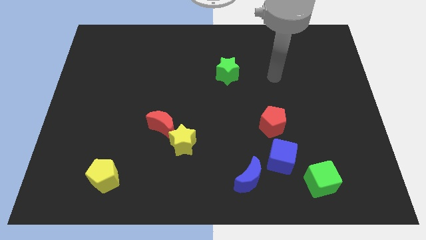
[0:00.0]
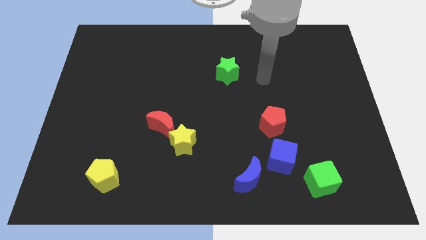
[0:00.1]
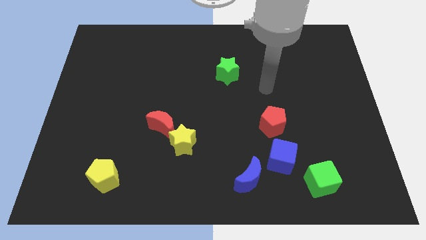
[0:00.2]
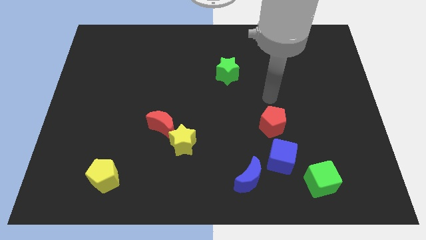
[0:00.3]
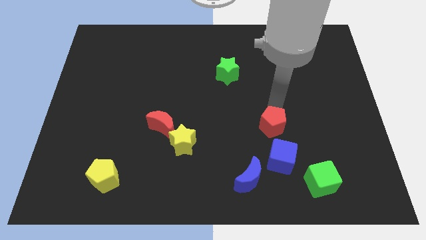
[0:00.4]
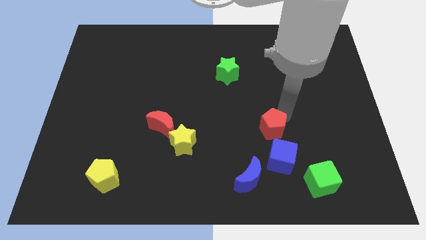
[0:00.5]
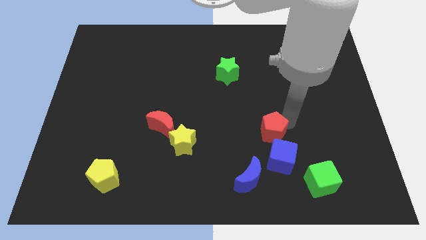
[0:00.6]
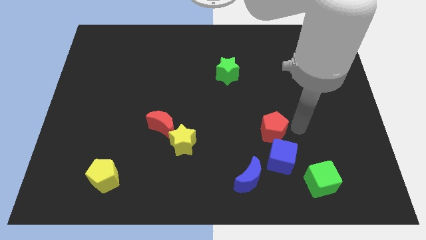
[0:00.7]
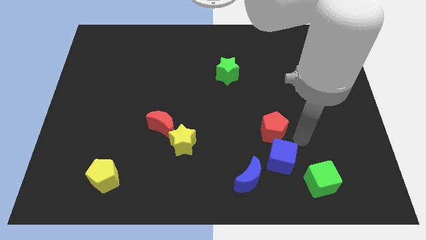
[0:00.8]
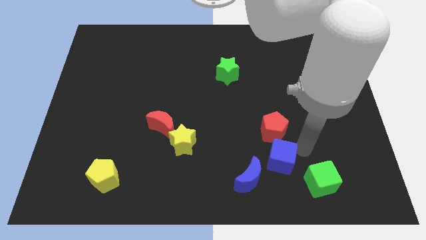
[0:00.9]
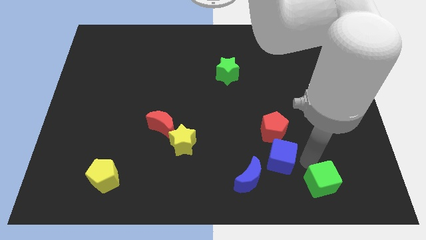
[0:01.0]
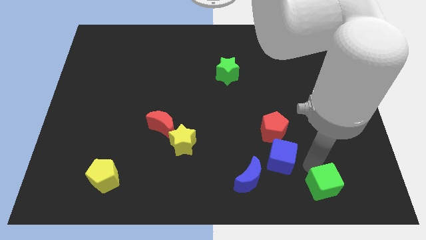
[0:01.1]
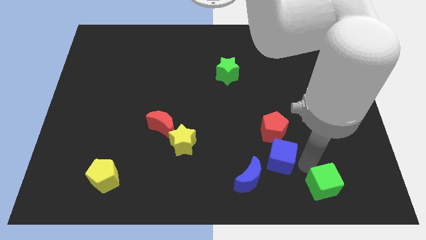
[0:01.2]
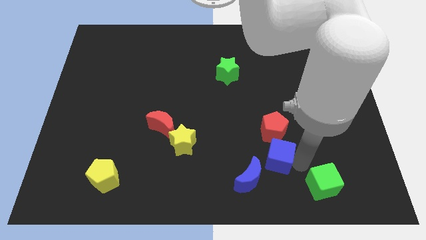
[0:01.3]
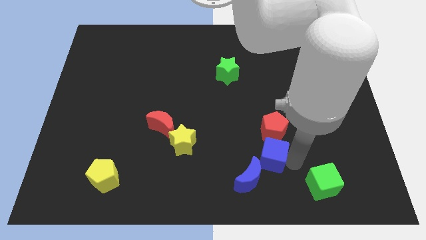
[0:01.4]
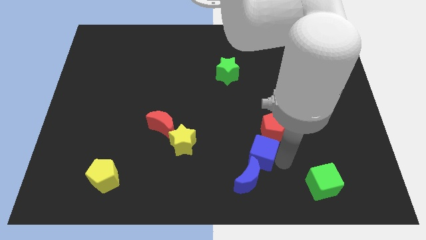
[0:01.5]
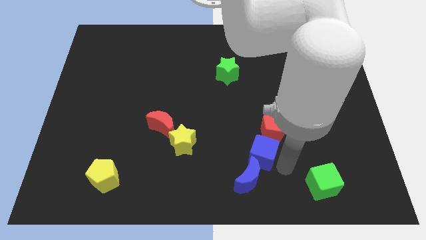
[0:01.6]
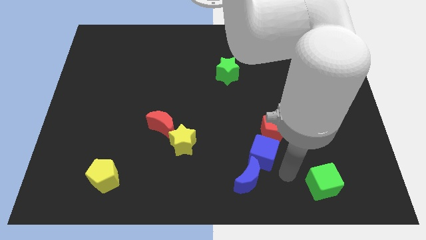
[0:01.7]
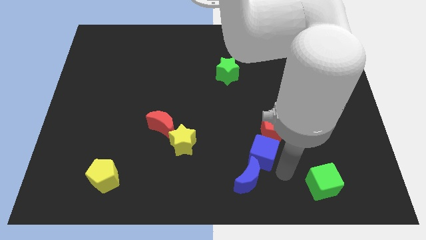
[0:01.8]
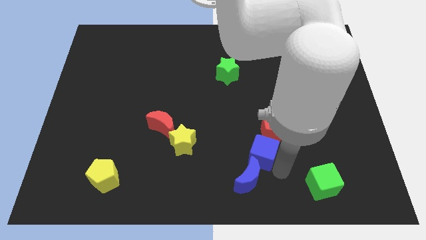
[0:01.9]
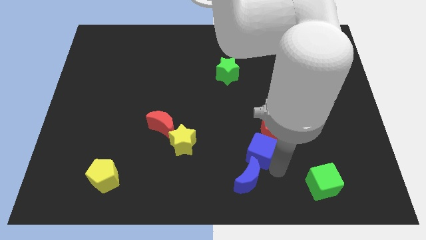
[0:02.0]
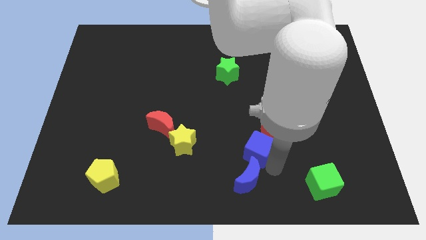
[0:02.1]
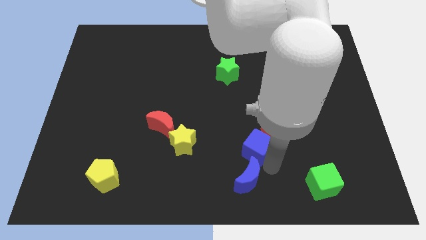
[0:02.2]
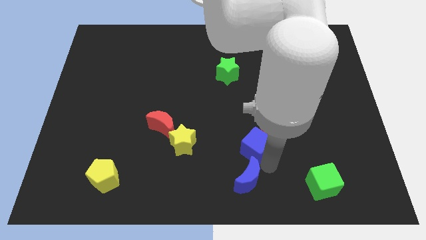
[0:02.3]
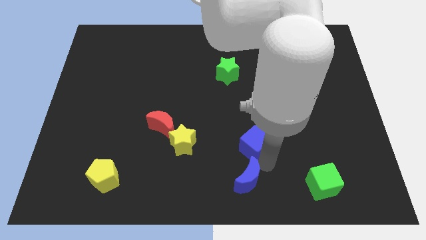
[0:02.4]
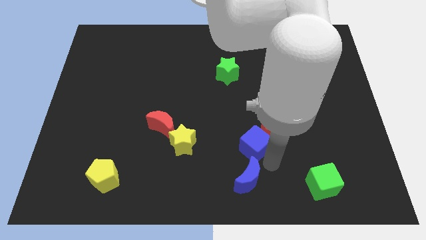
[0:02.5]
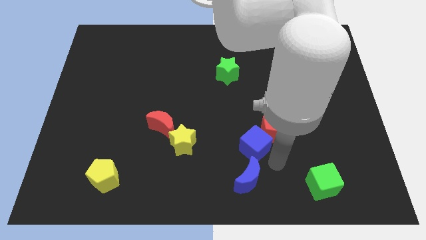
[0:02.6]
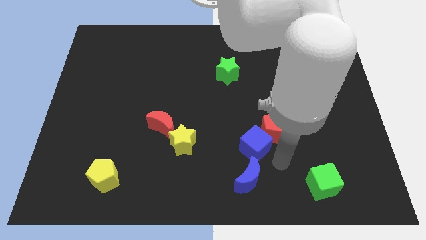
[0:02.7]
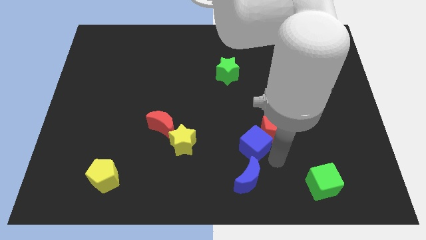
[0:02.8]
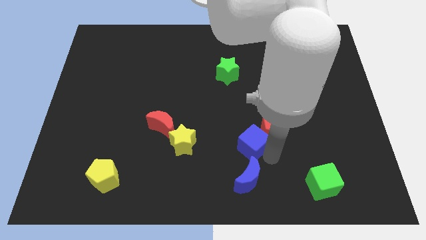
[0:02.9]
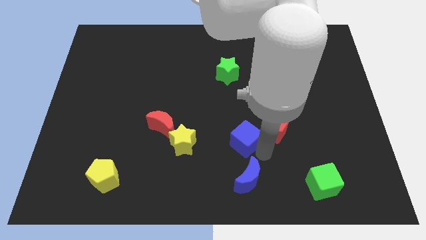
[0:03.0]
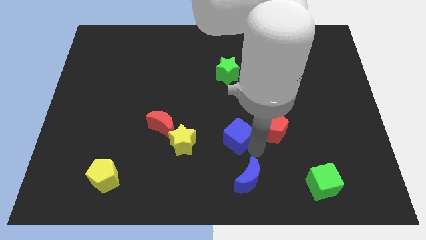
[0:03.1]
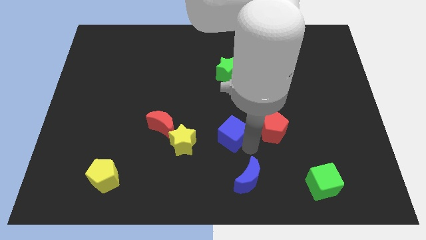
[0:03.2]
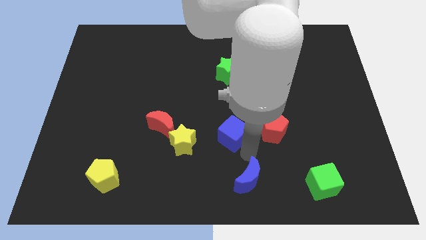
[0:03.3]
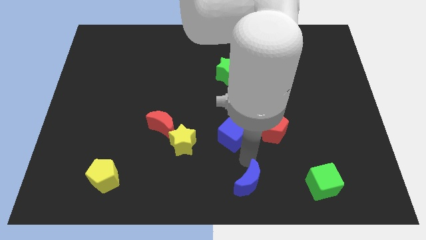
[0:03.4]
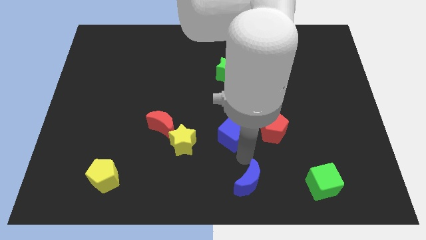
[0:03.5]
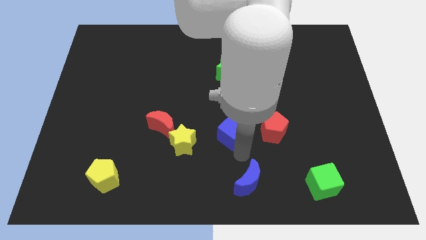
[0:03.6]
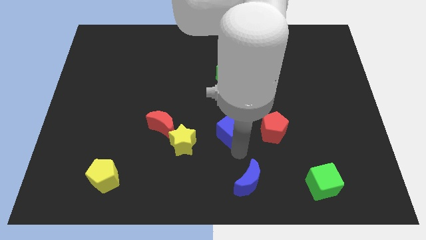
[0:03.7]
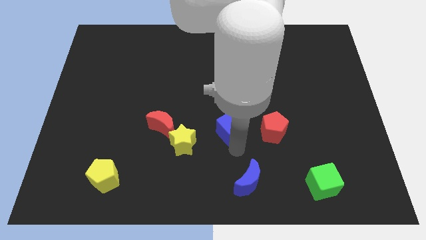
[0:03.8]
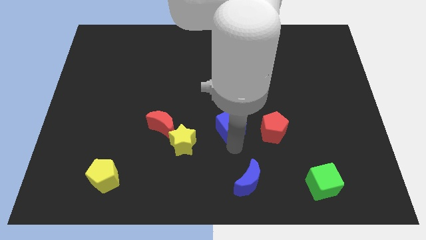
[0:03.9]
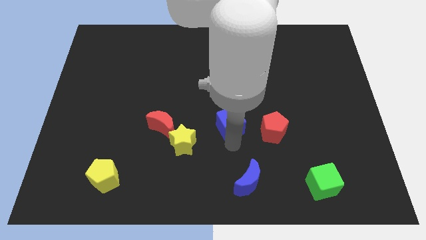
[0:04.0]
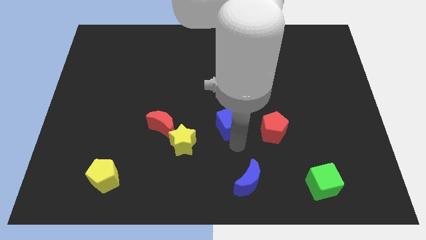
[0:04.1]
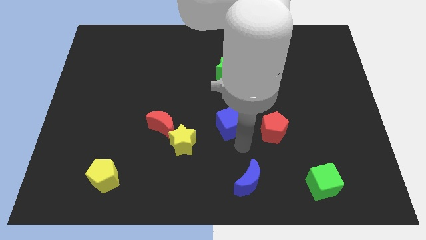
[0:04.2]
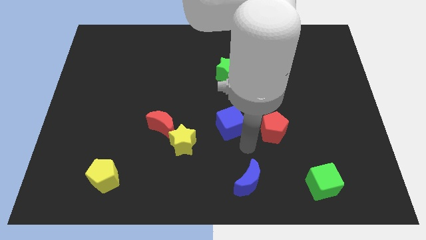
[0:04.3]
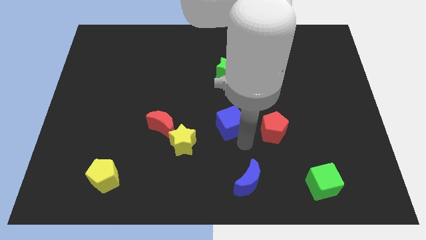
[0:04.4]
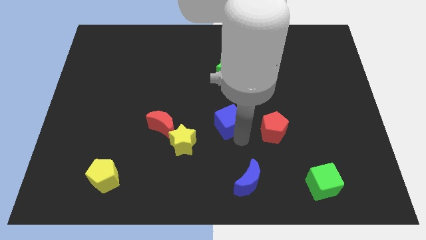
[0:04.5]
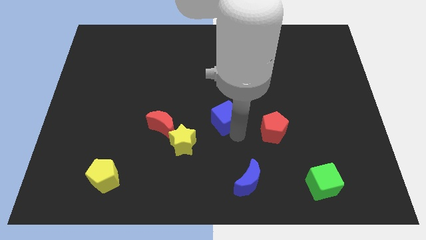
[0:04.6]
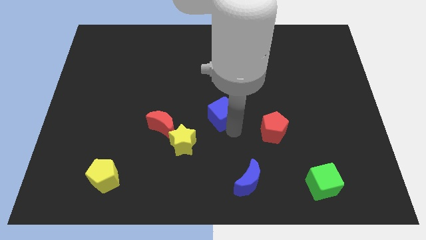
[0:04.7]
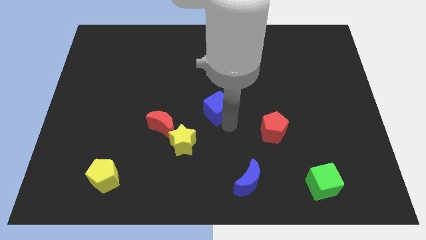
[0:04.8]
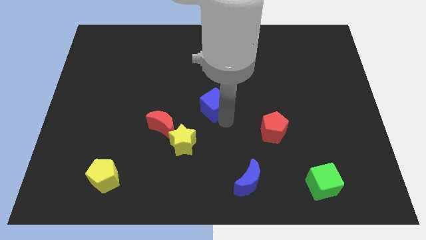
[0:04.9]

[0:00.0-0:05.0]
move the blue cube upwards and then left

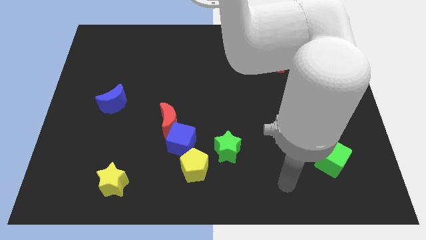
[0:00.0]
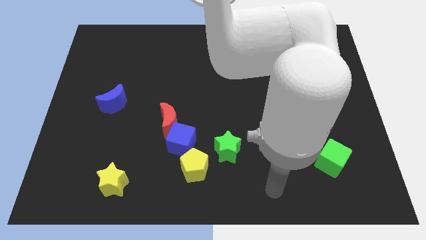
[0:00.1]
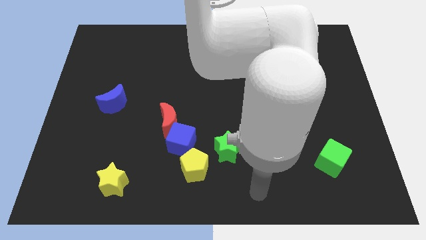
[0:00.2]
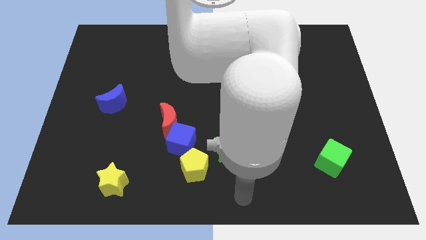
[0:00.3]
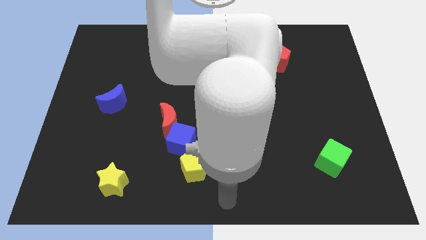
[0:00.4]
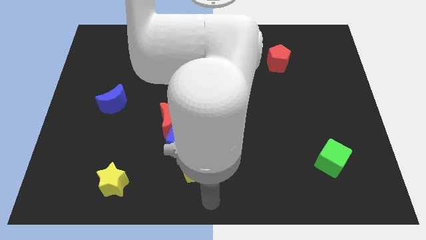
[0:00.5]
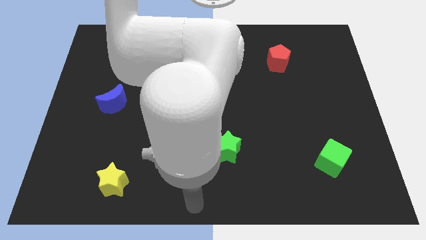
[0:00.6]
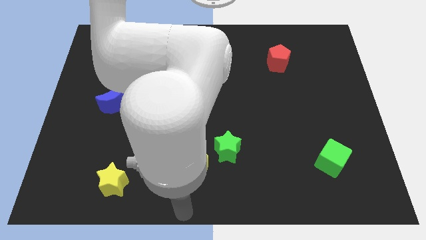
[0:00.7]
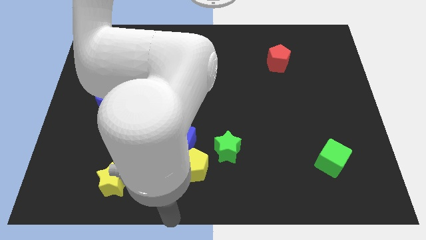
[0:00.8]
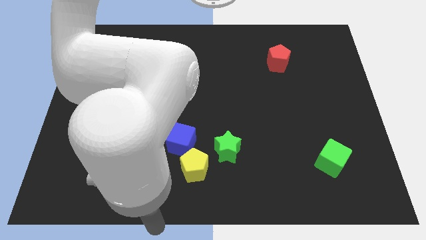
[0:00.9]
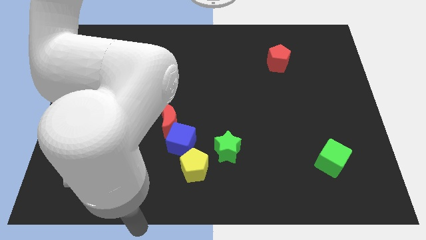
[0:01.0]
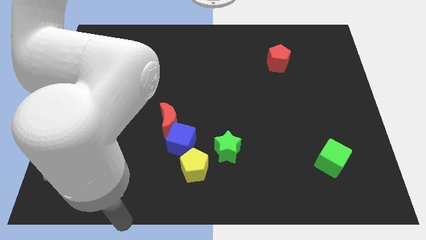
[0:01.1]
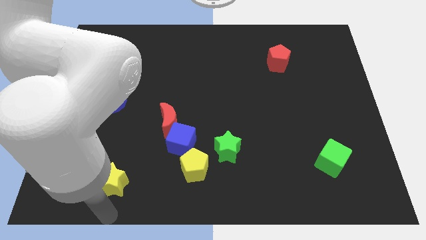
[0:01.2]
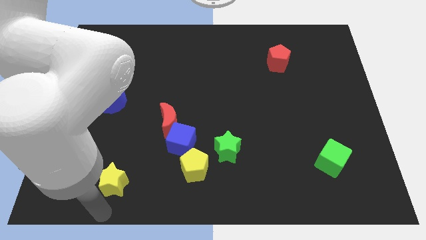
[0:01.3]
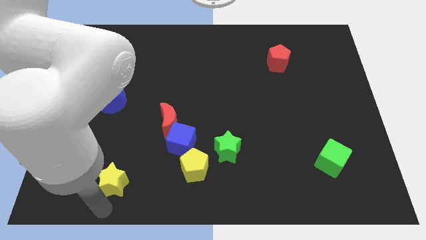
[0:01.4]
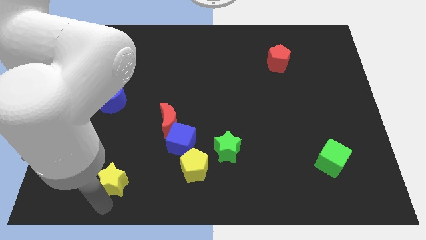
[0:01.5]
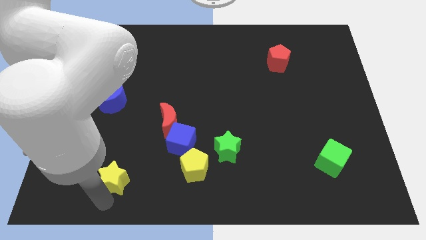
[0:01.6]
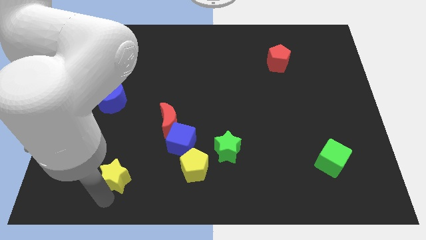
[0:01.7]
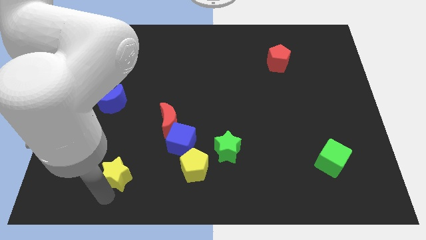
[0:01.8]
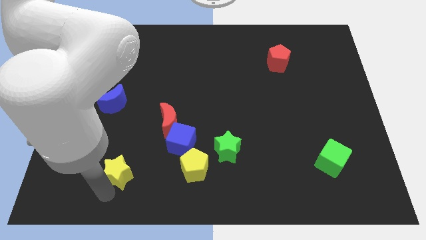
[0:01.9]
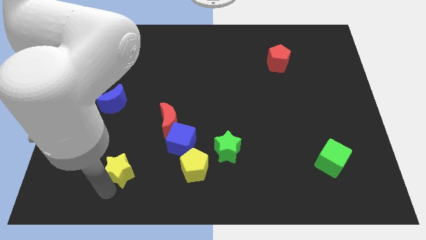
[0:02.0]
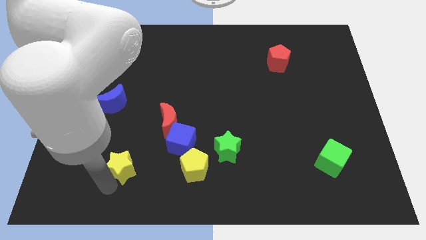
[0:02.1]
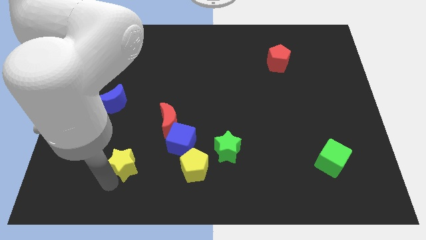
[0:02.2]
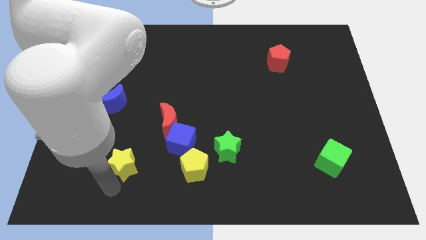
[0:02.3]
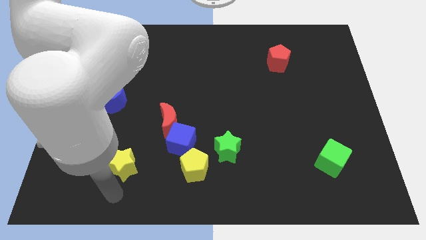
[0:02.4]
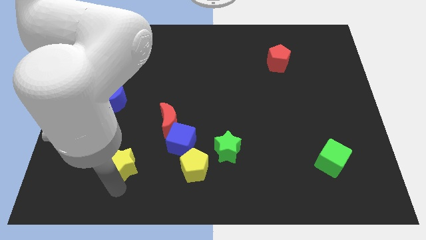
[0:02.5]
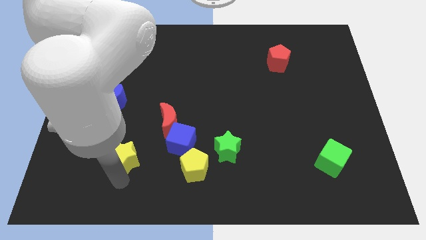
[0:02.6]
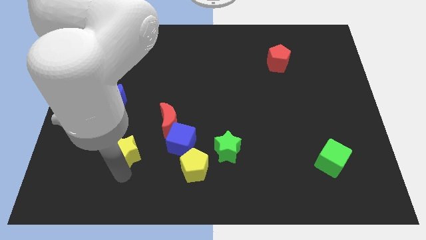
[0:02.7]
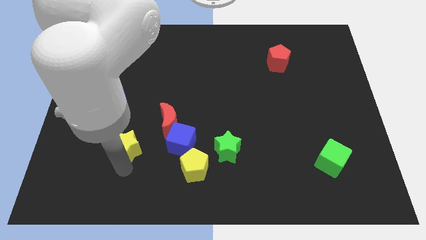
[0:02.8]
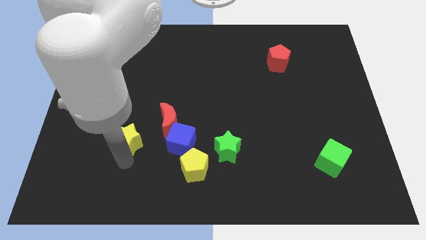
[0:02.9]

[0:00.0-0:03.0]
slightly push the yellow star up and to the right
